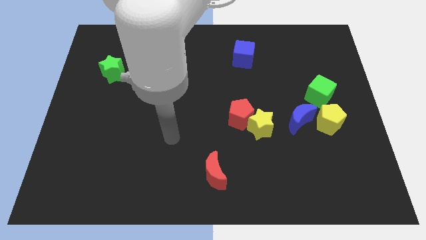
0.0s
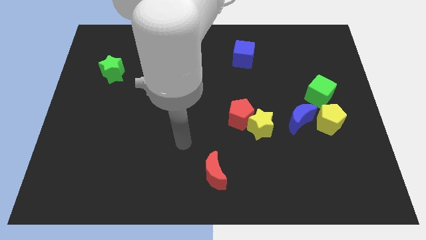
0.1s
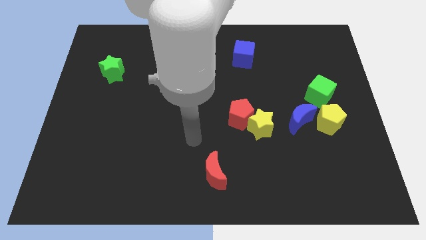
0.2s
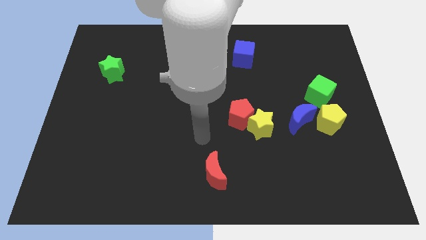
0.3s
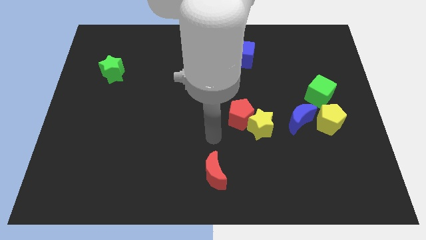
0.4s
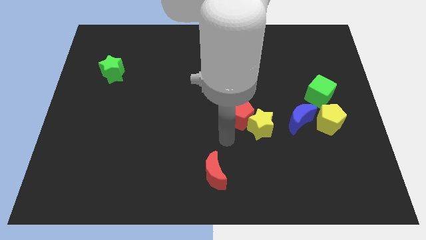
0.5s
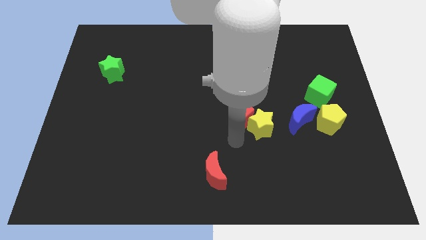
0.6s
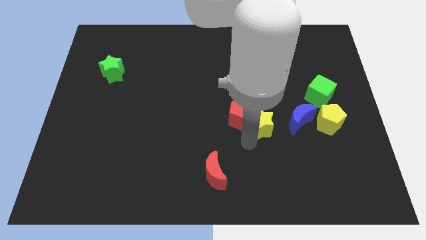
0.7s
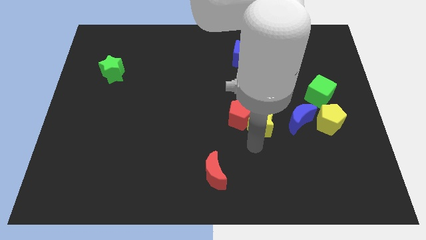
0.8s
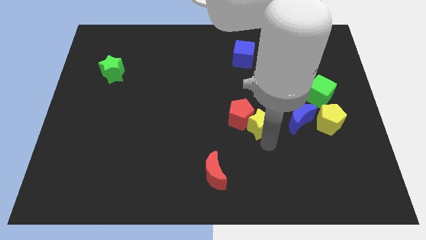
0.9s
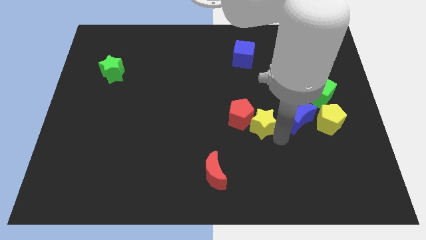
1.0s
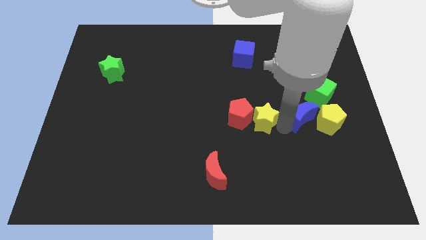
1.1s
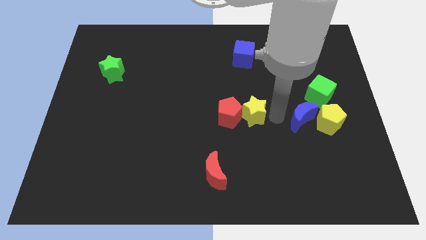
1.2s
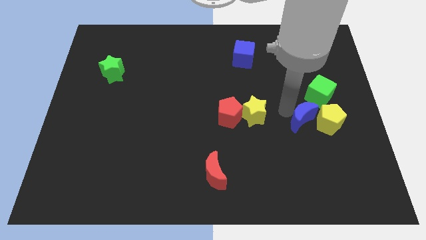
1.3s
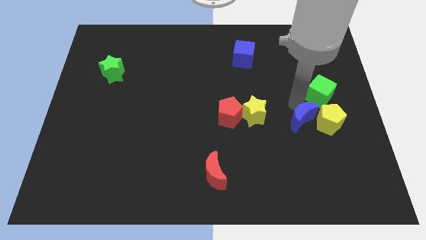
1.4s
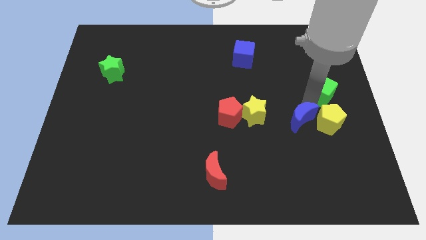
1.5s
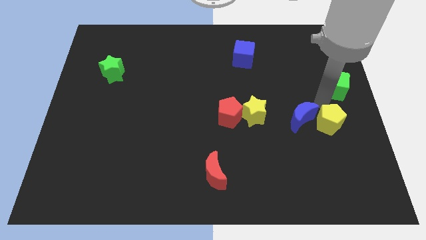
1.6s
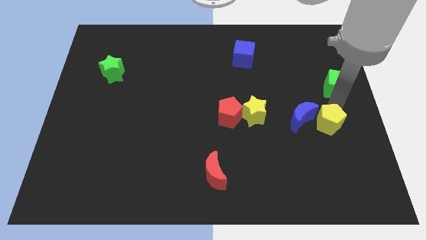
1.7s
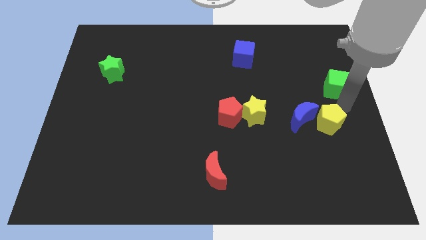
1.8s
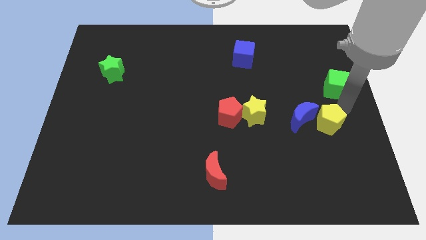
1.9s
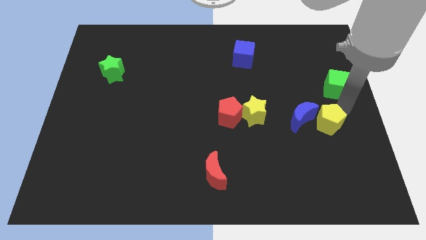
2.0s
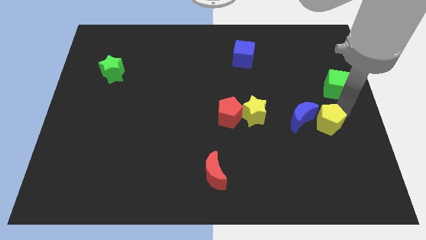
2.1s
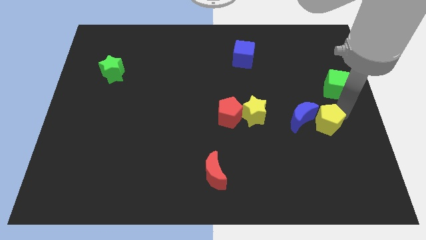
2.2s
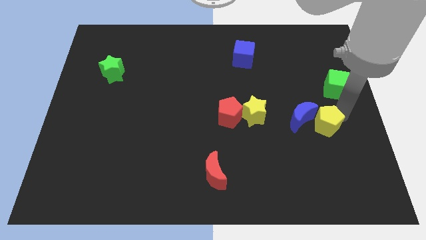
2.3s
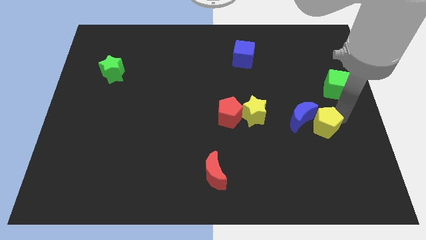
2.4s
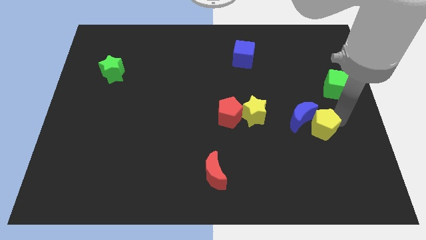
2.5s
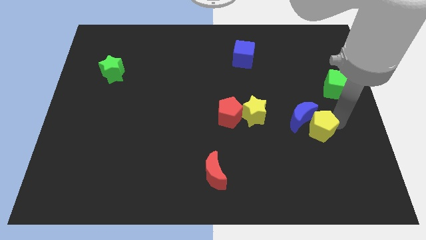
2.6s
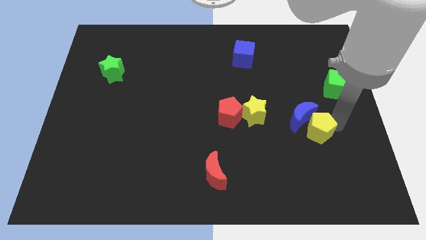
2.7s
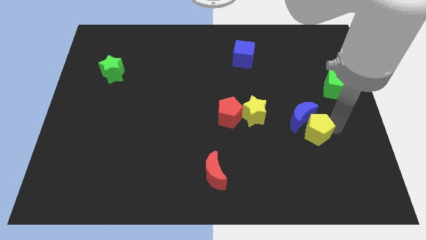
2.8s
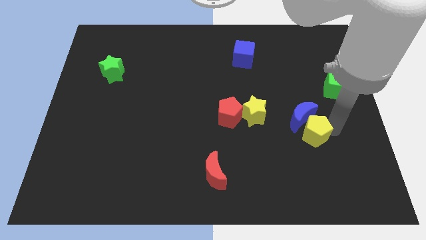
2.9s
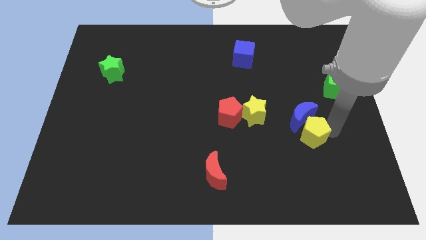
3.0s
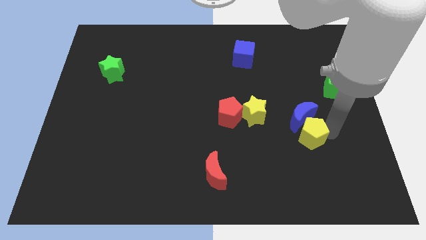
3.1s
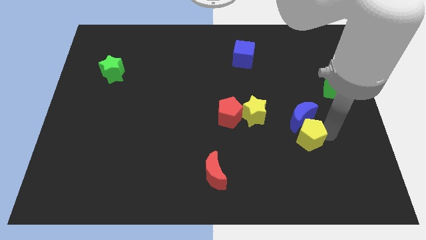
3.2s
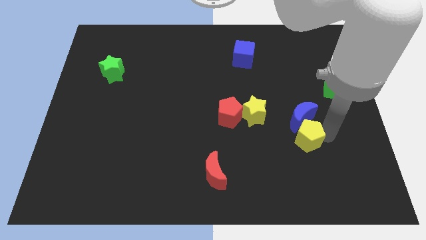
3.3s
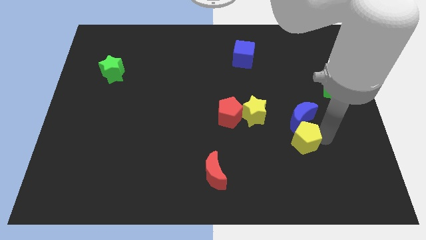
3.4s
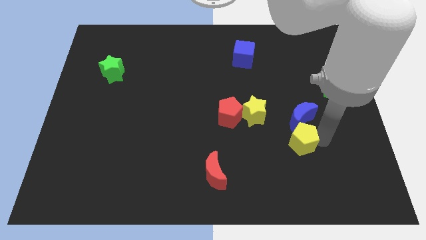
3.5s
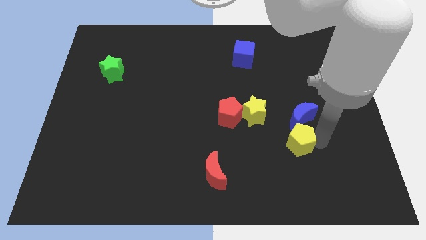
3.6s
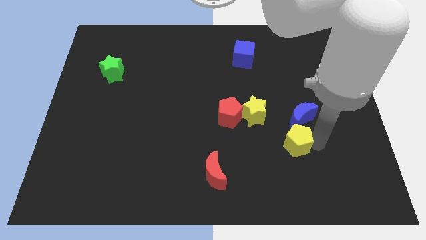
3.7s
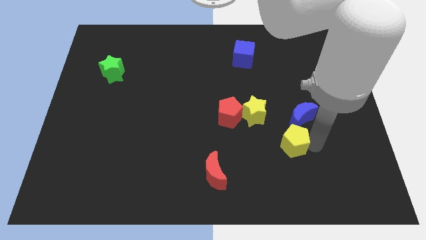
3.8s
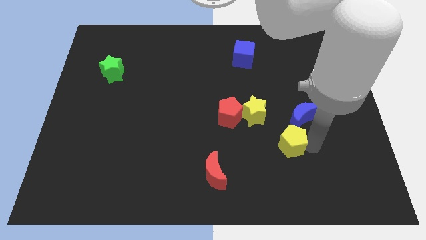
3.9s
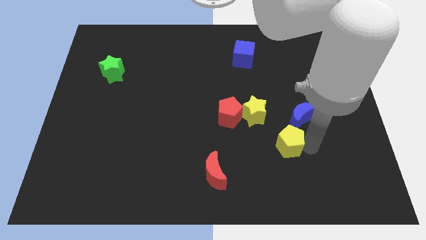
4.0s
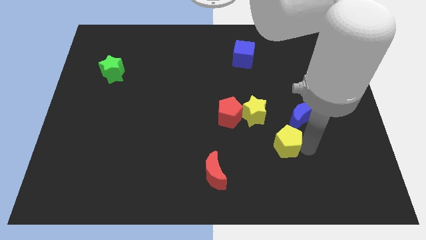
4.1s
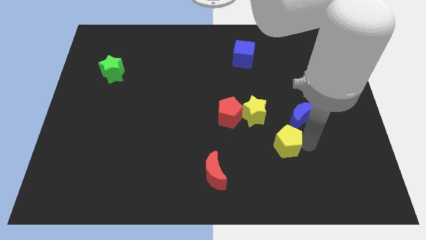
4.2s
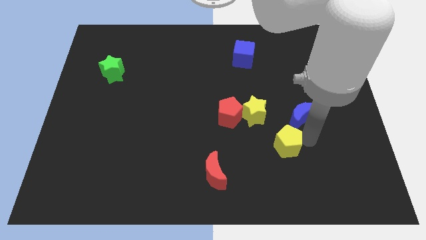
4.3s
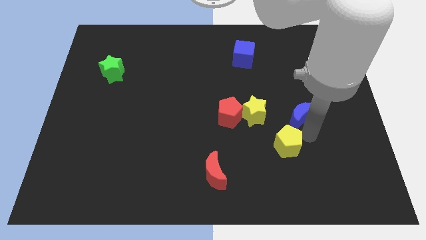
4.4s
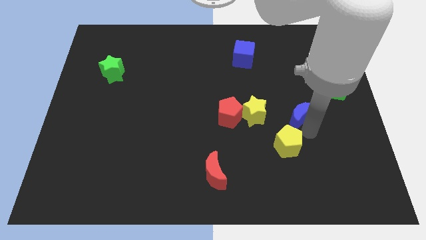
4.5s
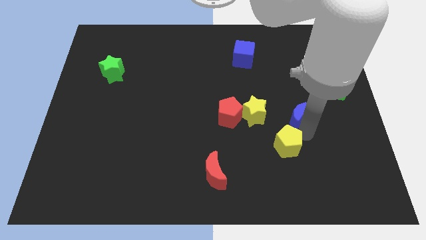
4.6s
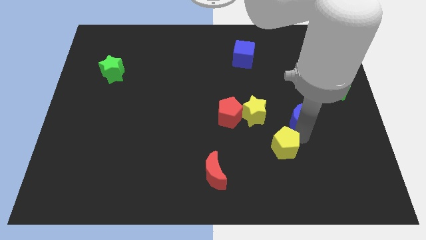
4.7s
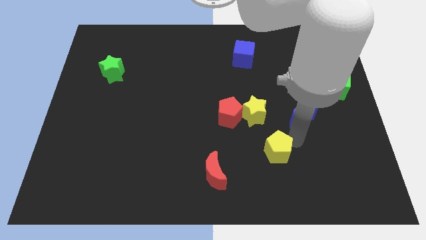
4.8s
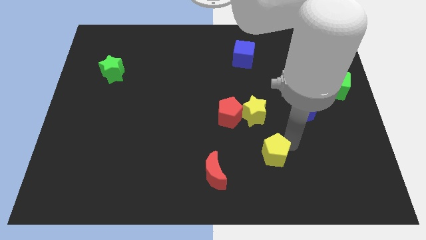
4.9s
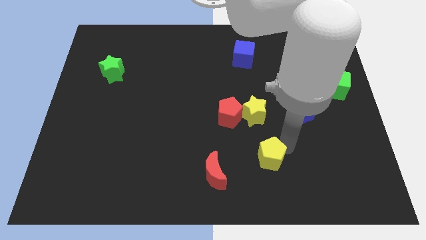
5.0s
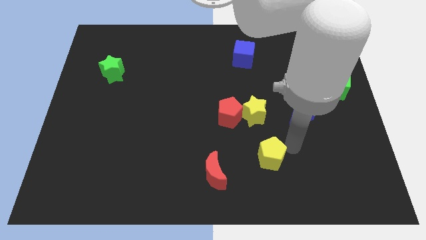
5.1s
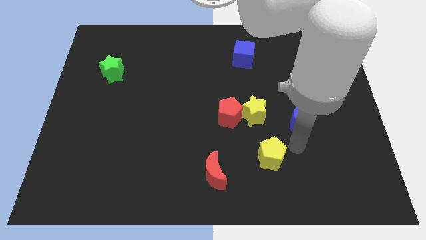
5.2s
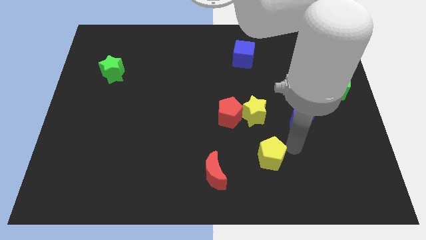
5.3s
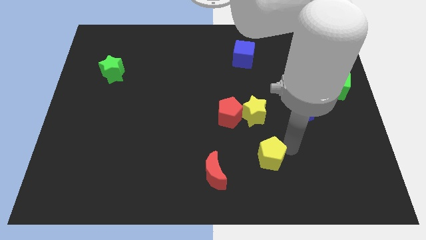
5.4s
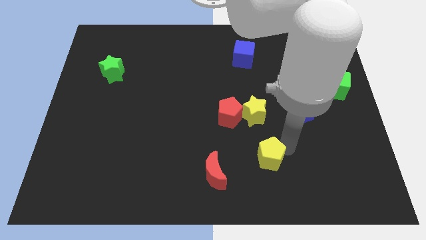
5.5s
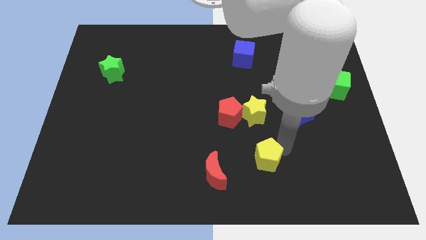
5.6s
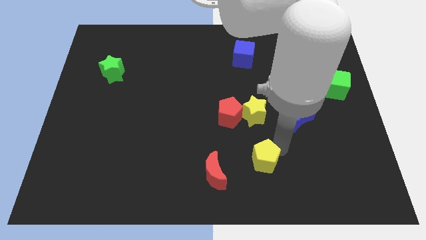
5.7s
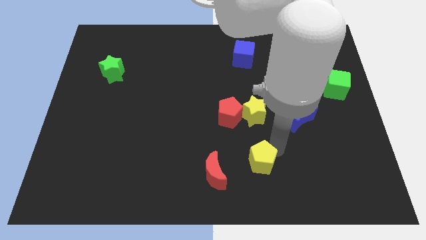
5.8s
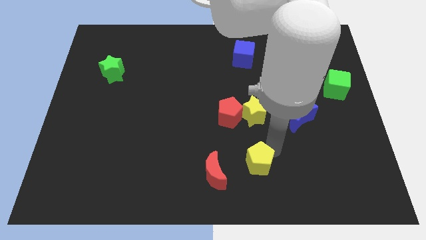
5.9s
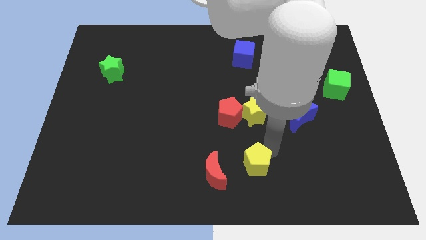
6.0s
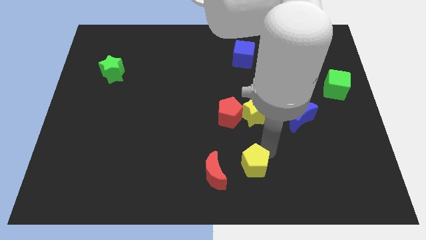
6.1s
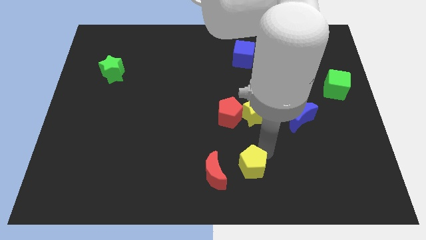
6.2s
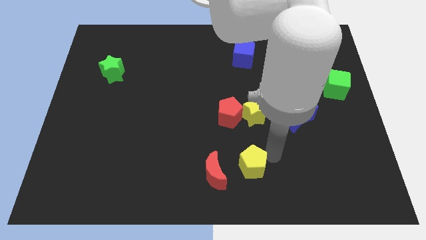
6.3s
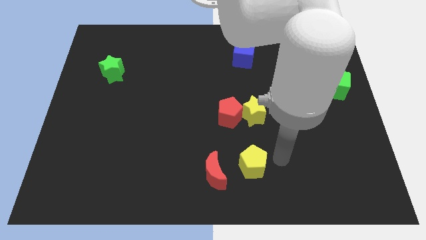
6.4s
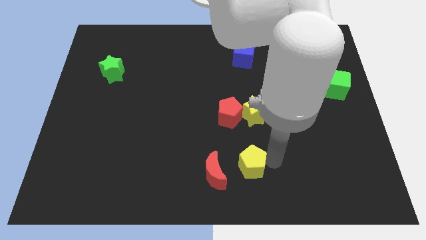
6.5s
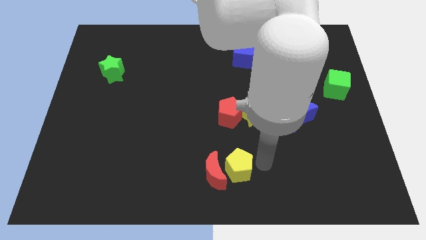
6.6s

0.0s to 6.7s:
move the yellow pentagon close to the red moon

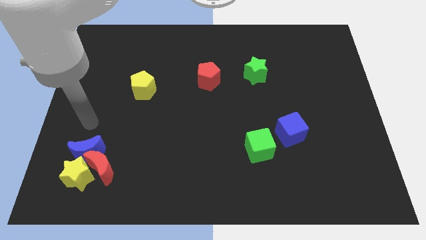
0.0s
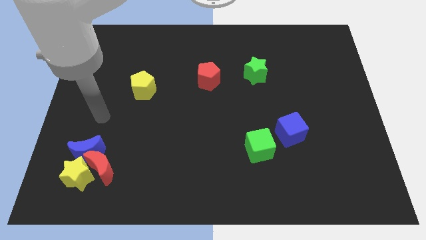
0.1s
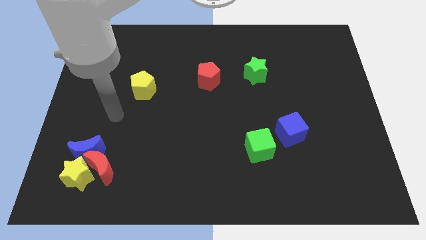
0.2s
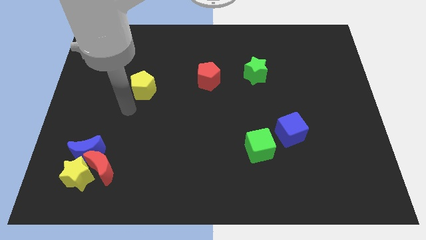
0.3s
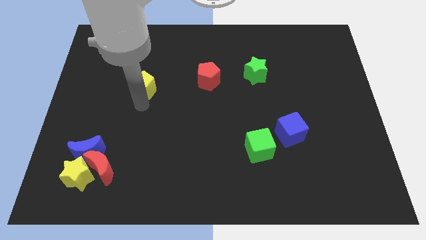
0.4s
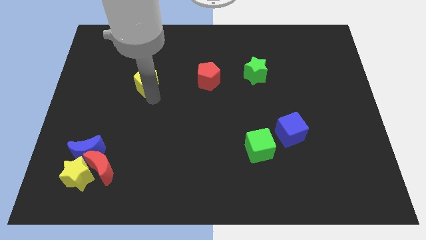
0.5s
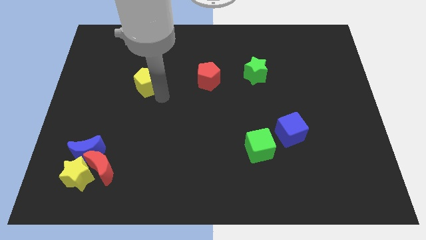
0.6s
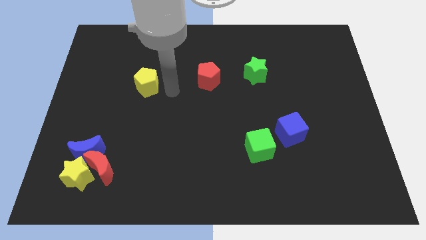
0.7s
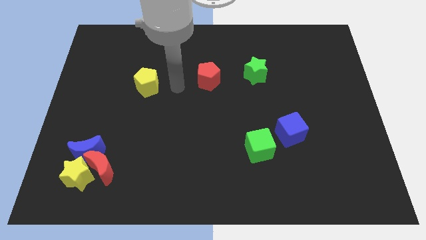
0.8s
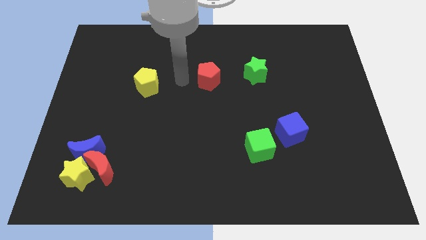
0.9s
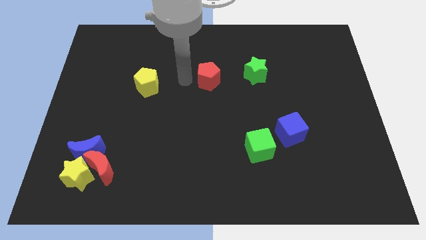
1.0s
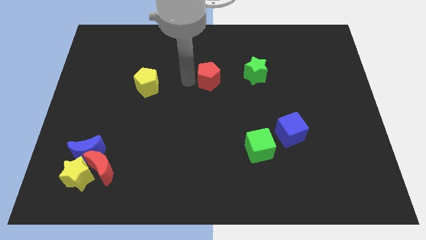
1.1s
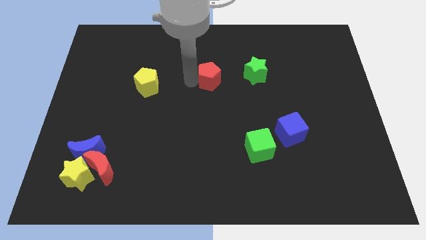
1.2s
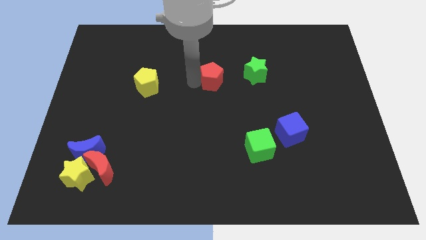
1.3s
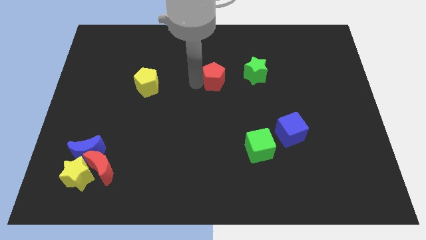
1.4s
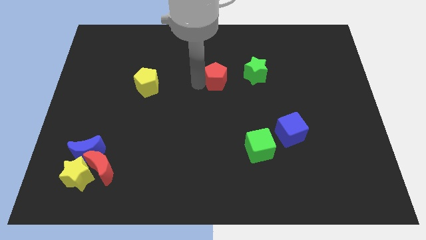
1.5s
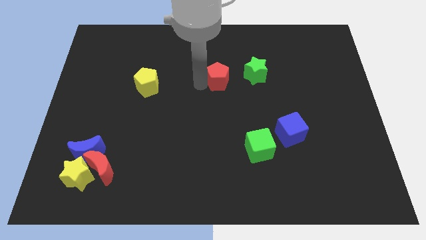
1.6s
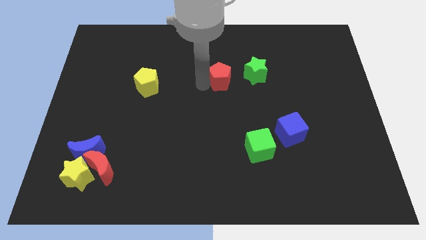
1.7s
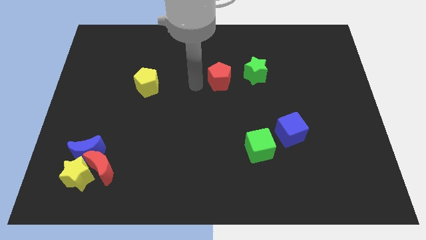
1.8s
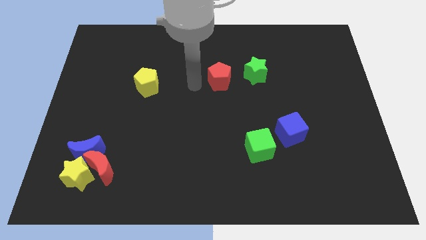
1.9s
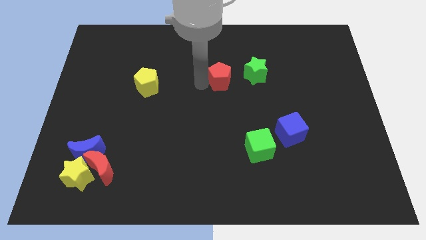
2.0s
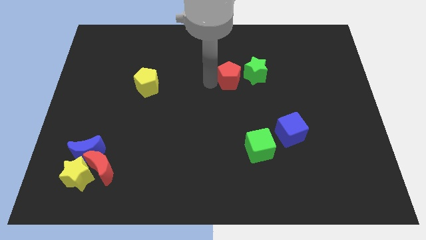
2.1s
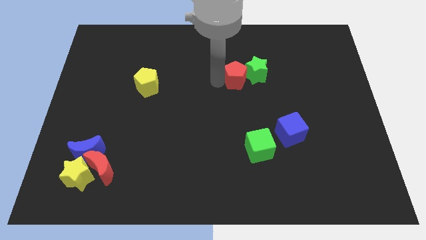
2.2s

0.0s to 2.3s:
push the red pentagon next to the green star
